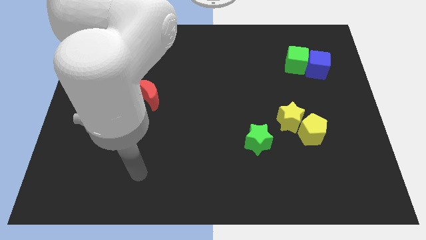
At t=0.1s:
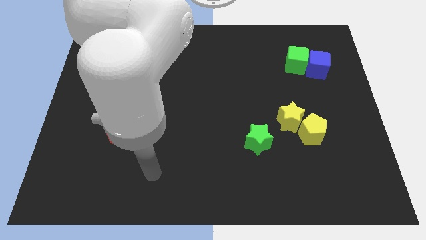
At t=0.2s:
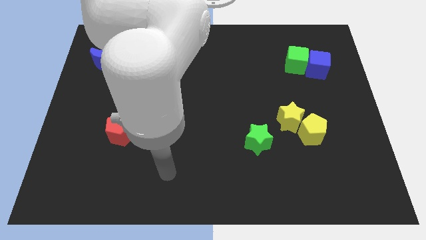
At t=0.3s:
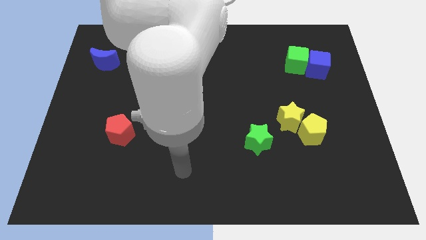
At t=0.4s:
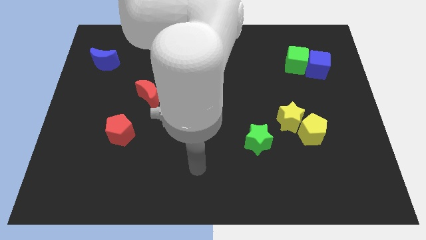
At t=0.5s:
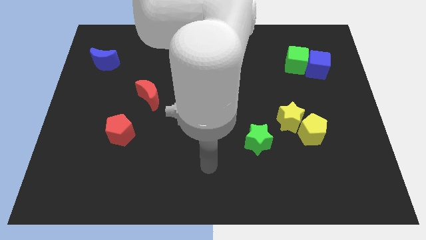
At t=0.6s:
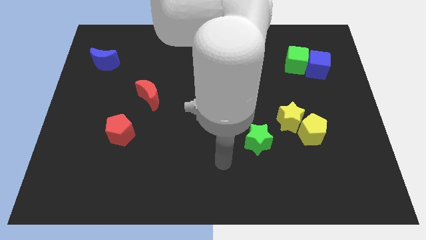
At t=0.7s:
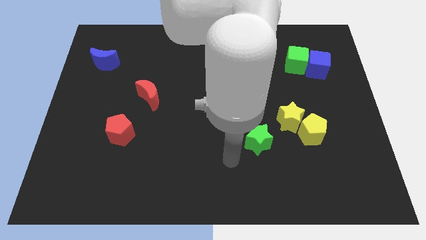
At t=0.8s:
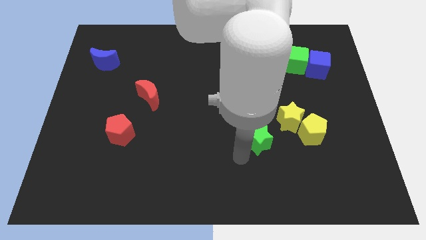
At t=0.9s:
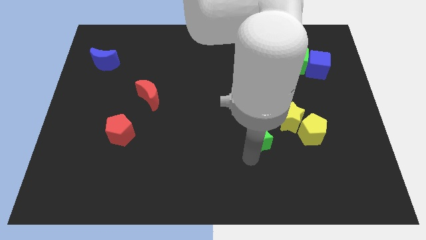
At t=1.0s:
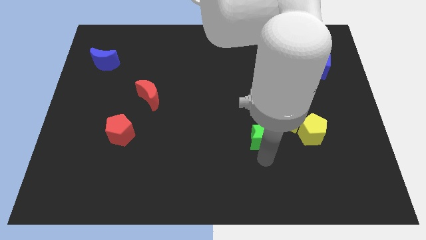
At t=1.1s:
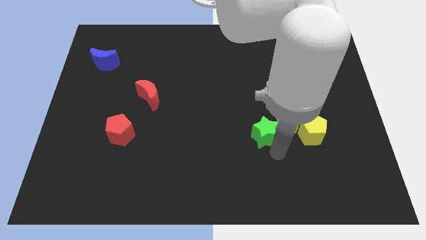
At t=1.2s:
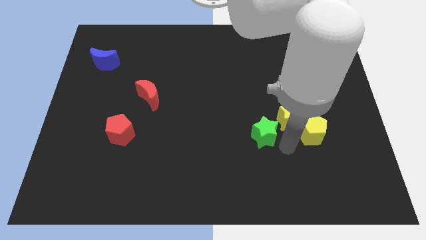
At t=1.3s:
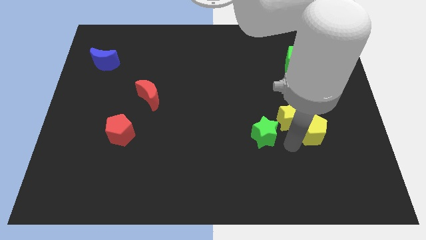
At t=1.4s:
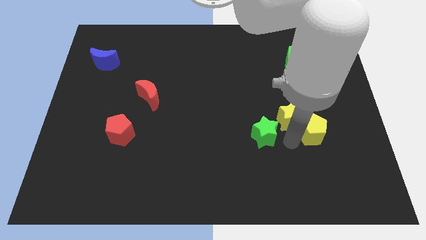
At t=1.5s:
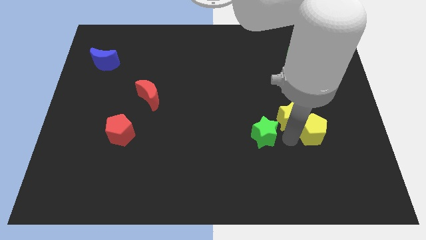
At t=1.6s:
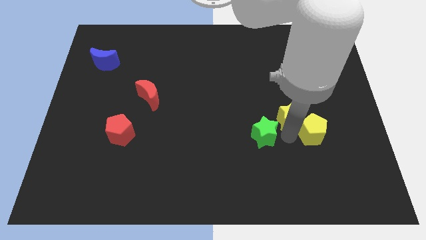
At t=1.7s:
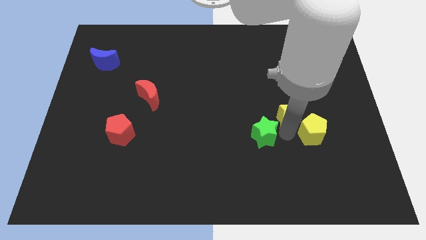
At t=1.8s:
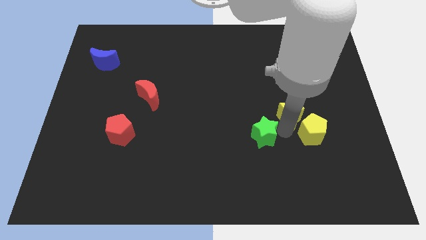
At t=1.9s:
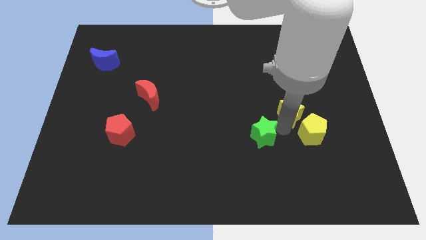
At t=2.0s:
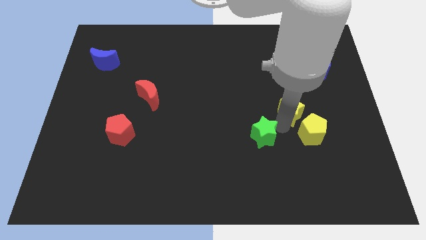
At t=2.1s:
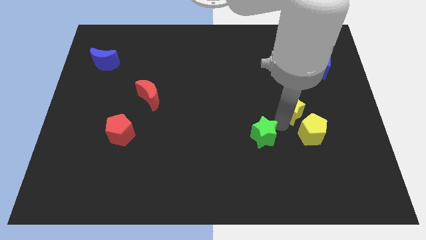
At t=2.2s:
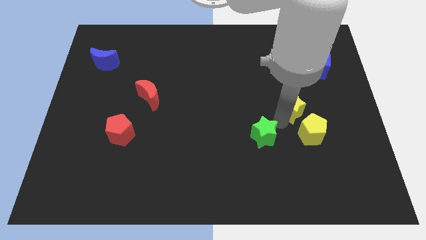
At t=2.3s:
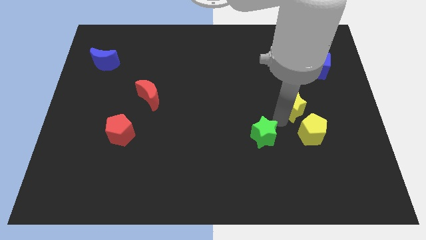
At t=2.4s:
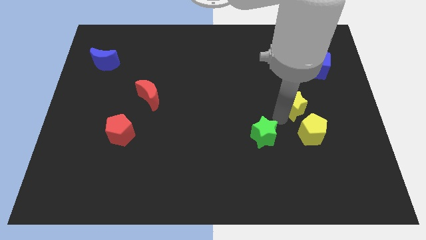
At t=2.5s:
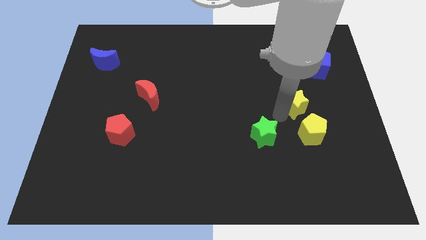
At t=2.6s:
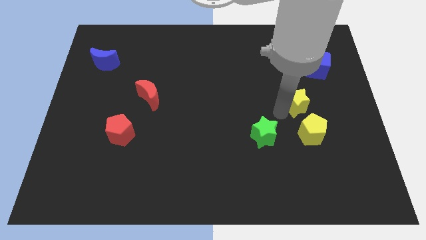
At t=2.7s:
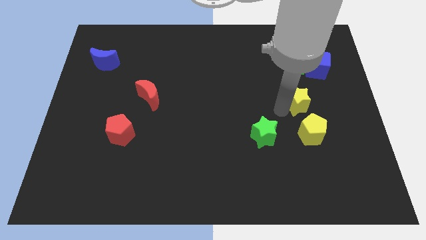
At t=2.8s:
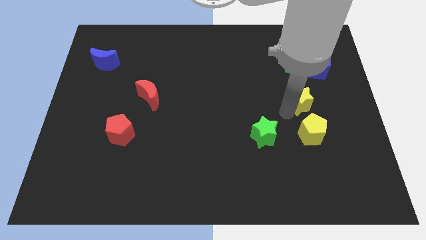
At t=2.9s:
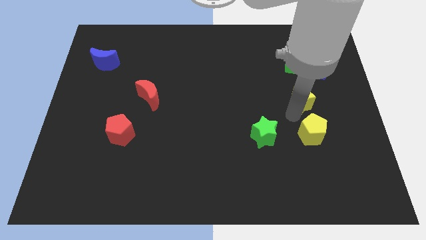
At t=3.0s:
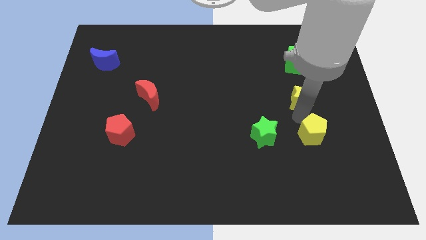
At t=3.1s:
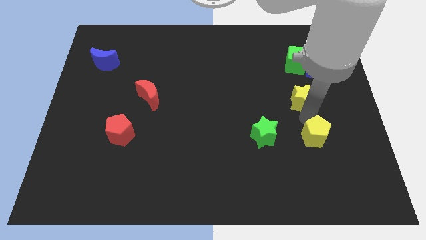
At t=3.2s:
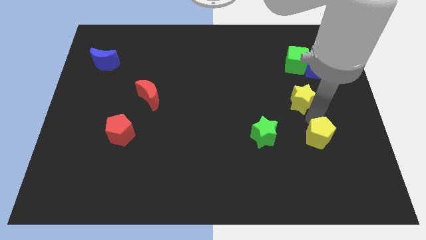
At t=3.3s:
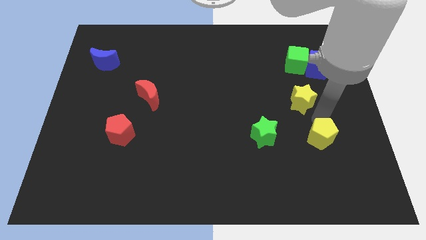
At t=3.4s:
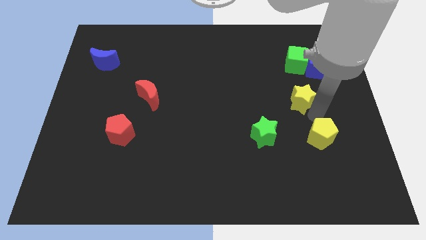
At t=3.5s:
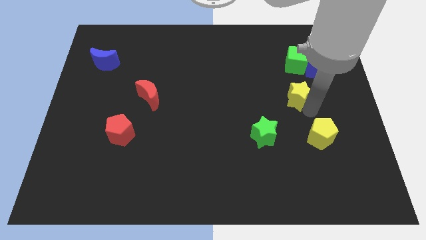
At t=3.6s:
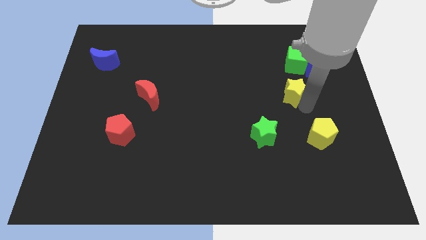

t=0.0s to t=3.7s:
move the yellow star a little bit up

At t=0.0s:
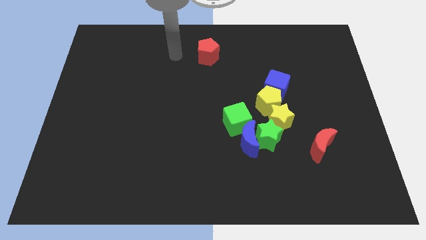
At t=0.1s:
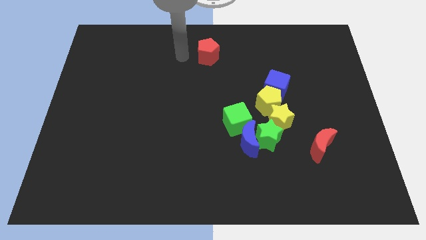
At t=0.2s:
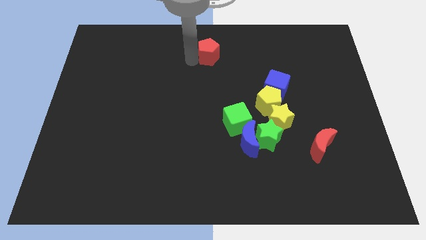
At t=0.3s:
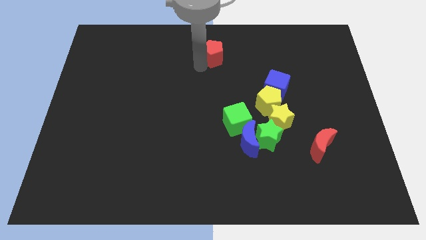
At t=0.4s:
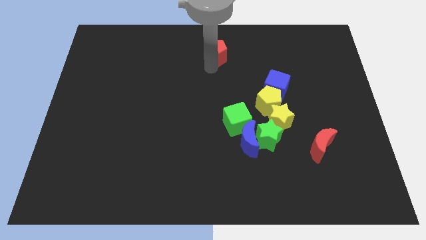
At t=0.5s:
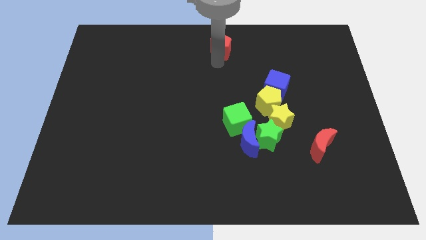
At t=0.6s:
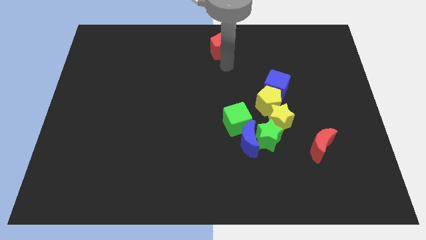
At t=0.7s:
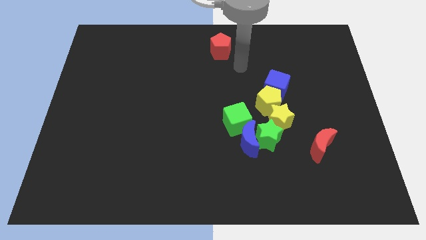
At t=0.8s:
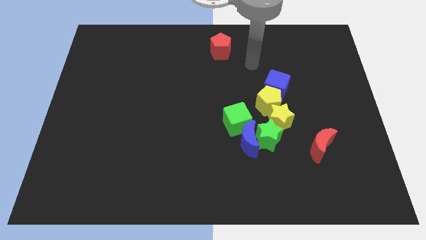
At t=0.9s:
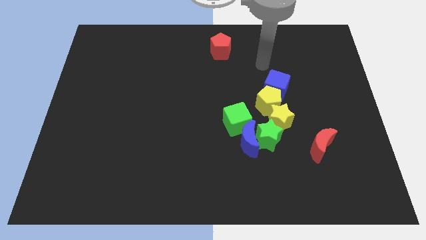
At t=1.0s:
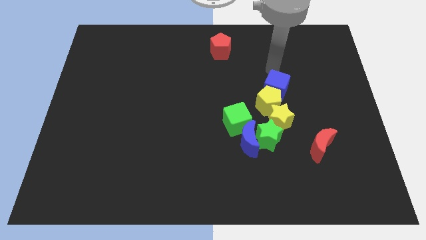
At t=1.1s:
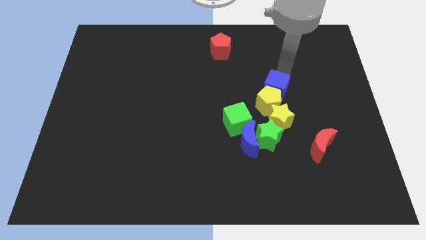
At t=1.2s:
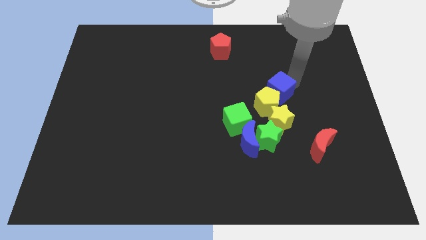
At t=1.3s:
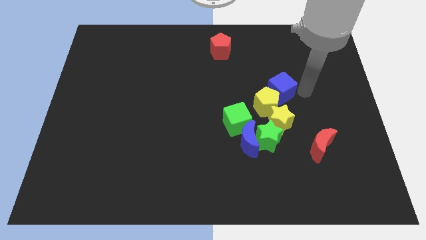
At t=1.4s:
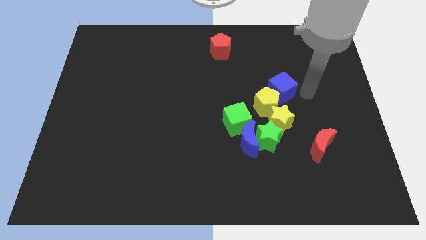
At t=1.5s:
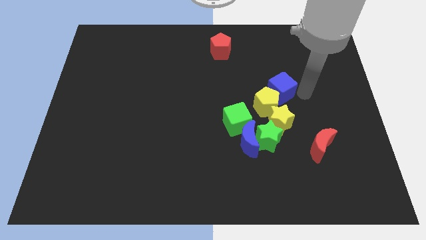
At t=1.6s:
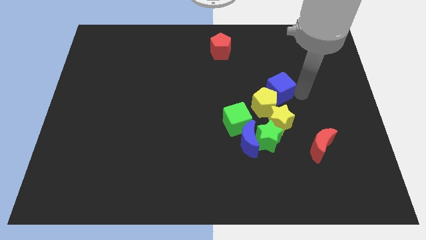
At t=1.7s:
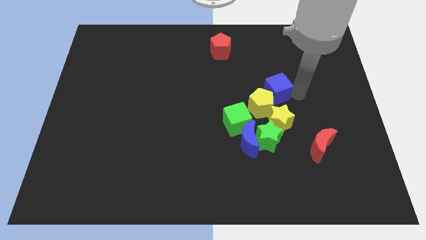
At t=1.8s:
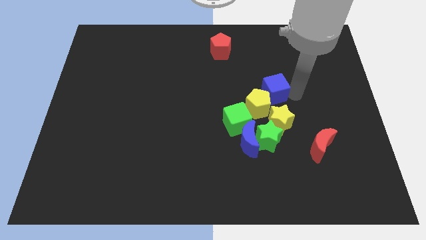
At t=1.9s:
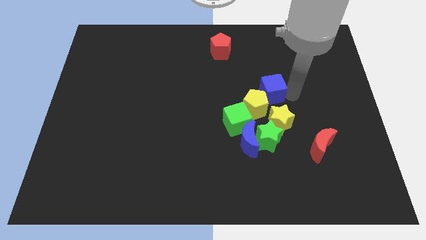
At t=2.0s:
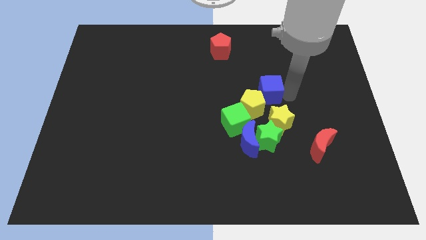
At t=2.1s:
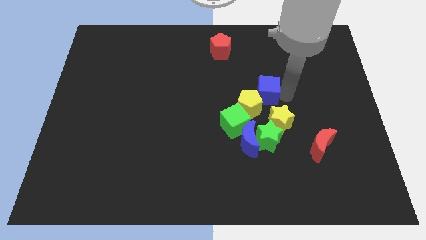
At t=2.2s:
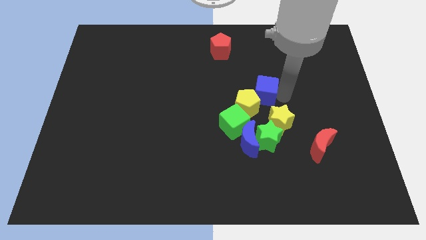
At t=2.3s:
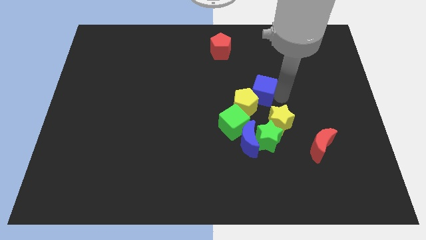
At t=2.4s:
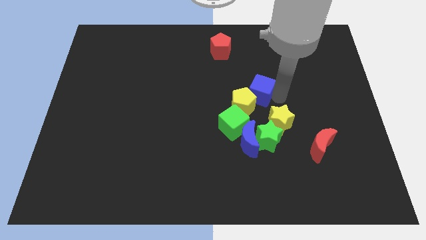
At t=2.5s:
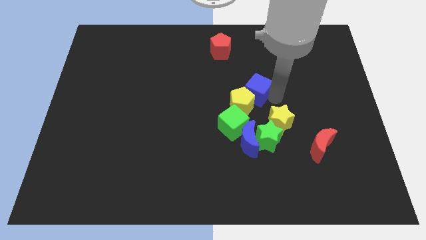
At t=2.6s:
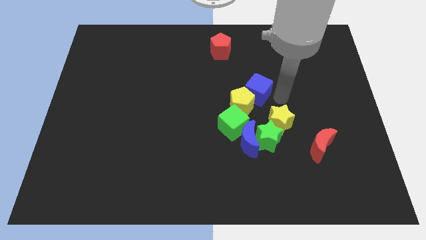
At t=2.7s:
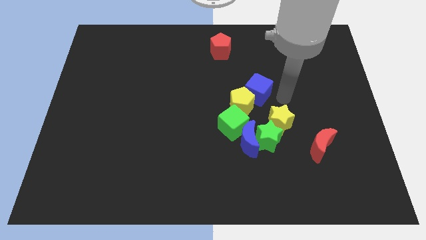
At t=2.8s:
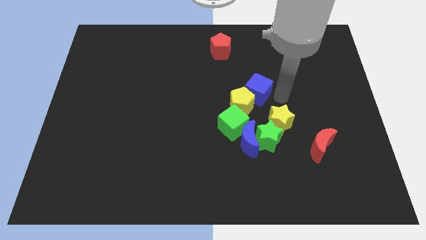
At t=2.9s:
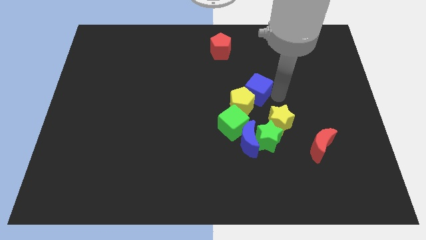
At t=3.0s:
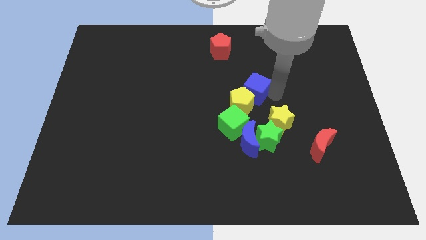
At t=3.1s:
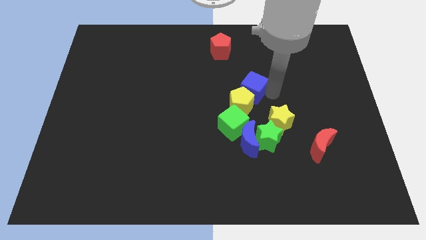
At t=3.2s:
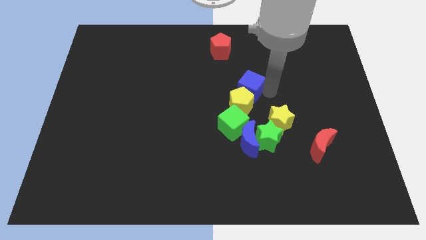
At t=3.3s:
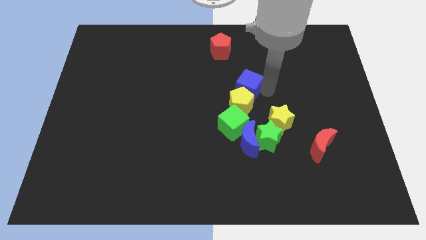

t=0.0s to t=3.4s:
push the blue cube left a bit

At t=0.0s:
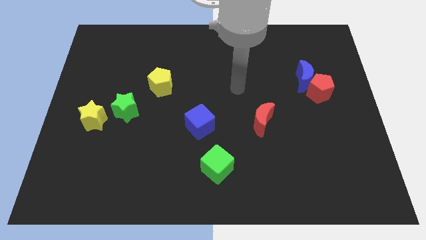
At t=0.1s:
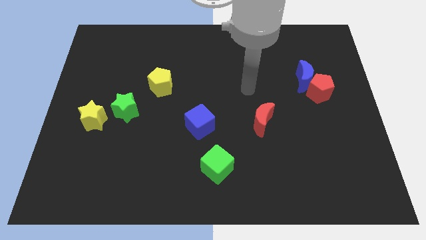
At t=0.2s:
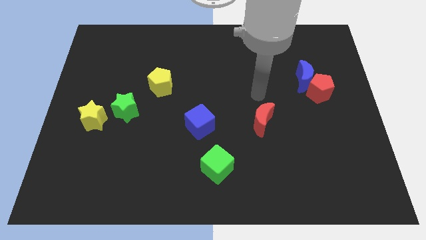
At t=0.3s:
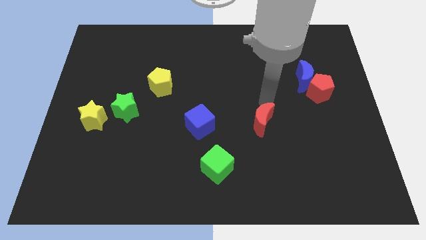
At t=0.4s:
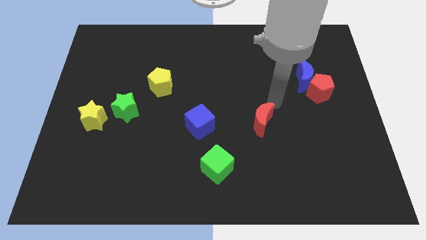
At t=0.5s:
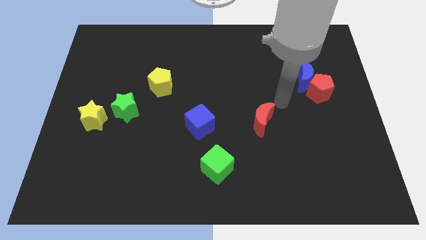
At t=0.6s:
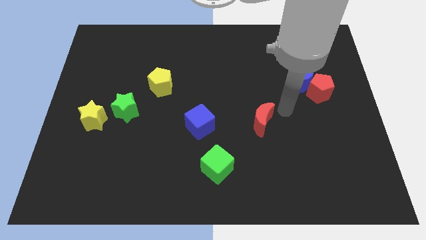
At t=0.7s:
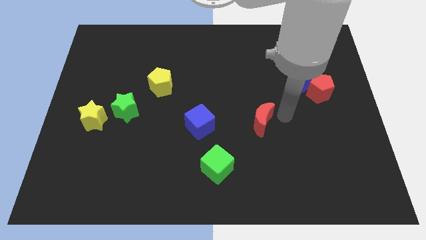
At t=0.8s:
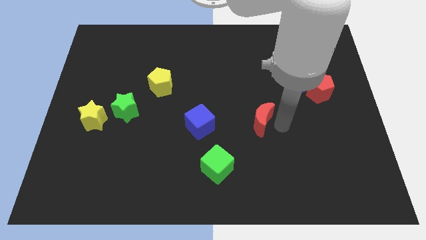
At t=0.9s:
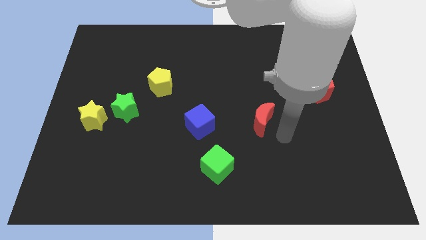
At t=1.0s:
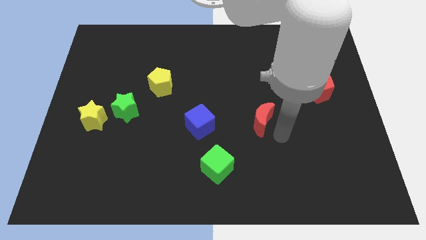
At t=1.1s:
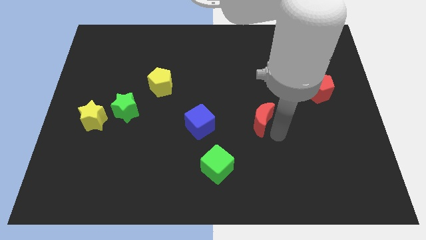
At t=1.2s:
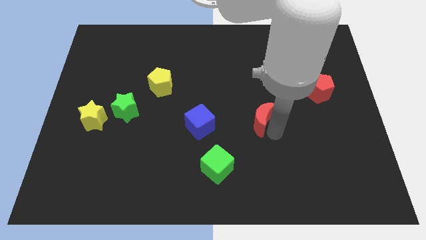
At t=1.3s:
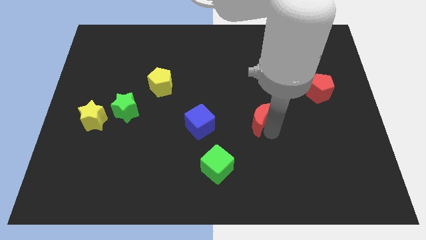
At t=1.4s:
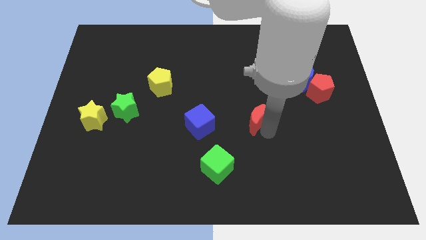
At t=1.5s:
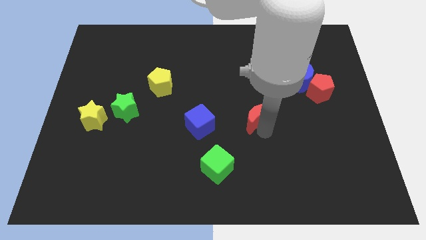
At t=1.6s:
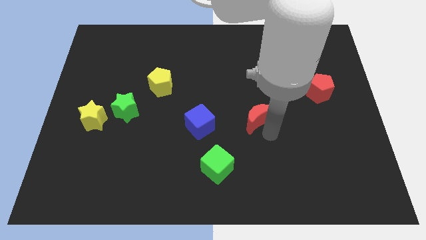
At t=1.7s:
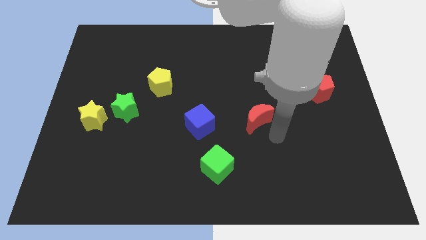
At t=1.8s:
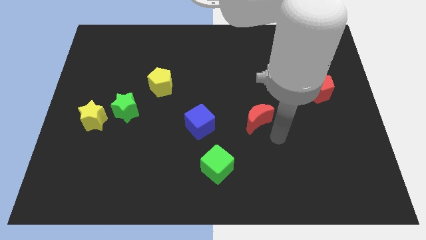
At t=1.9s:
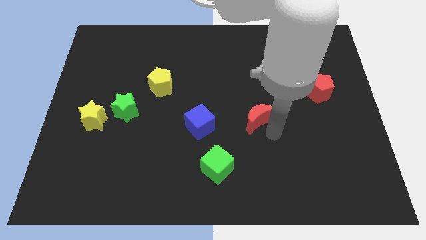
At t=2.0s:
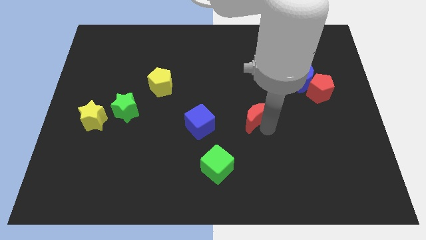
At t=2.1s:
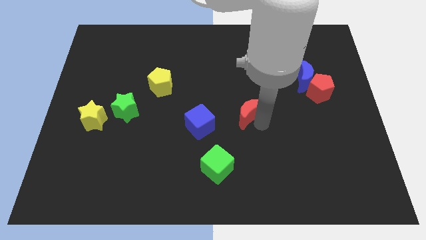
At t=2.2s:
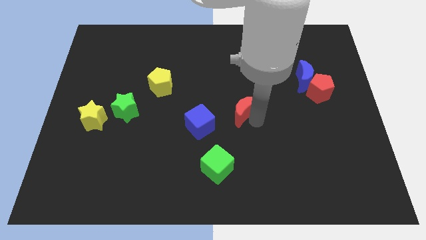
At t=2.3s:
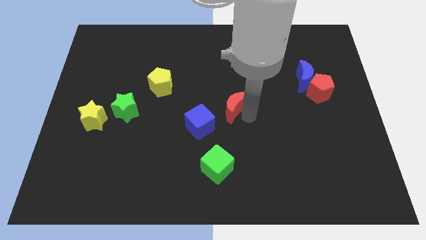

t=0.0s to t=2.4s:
slightly push the red moon upwards and then to the left
